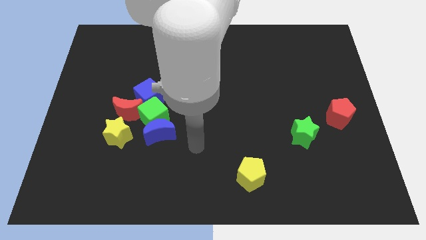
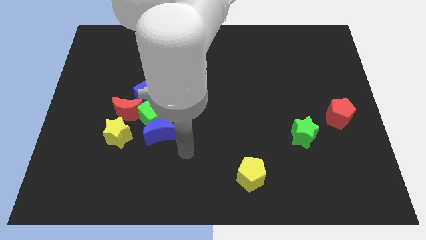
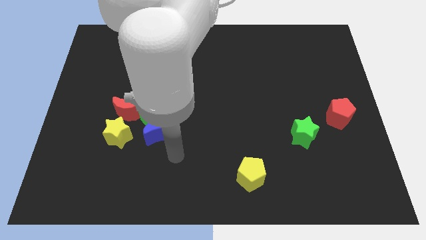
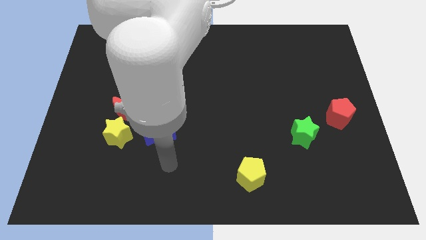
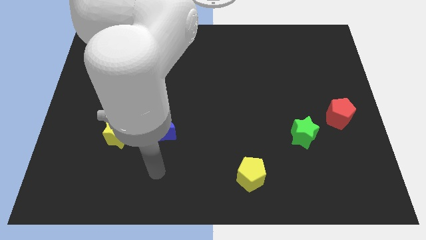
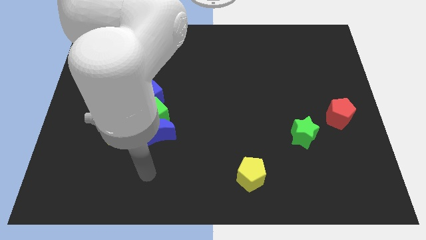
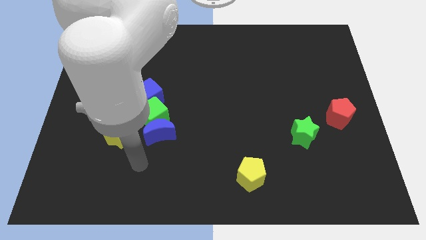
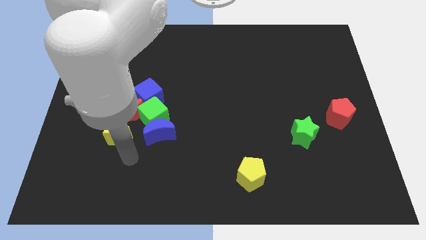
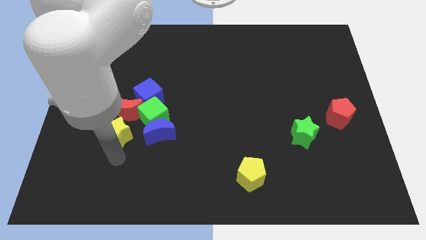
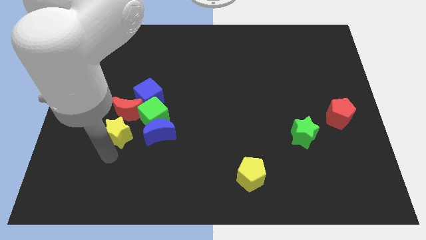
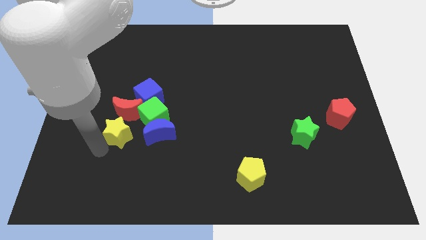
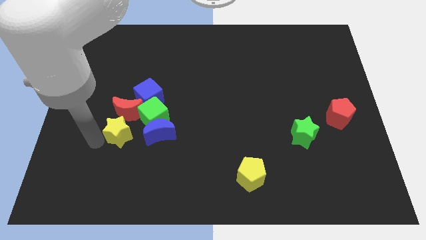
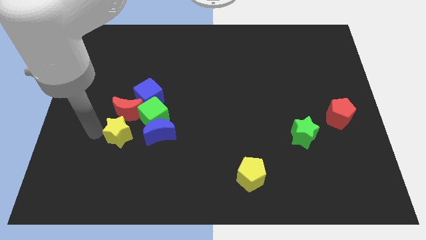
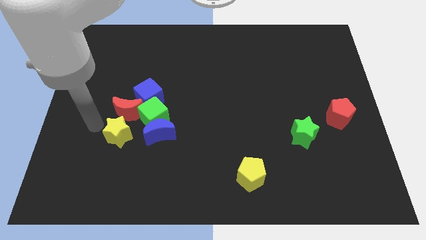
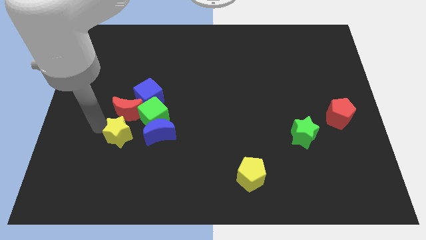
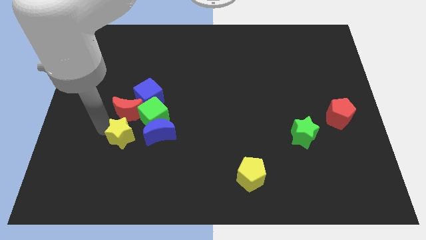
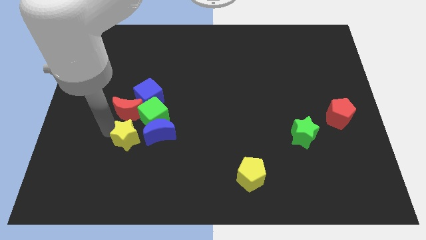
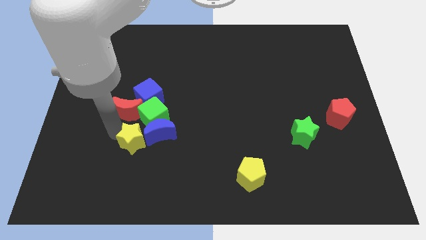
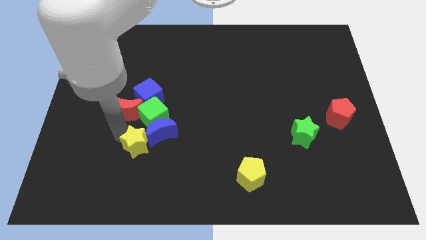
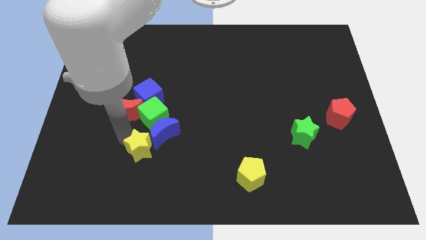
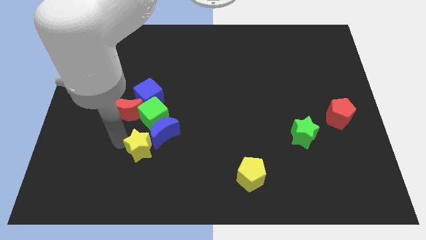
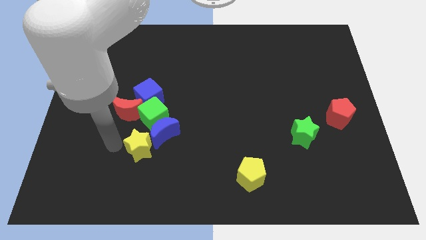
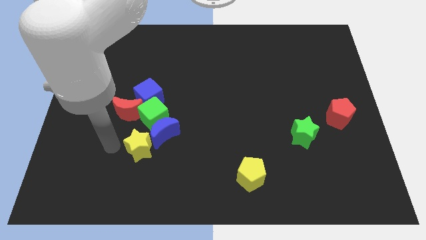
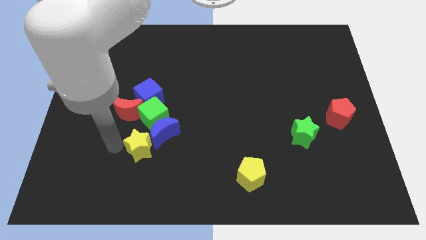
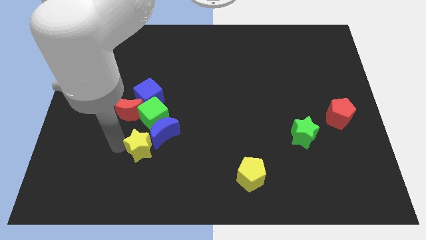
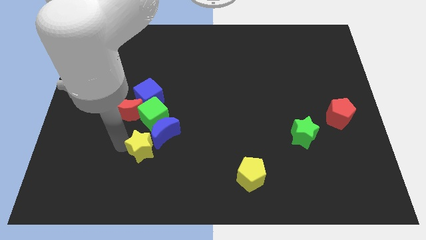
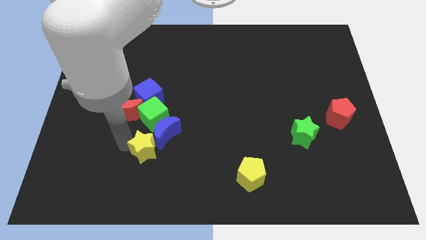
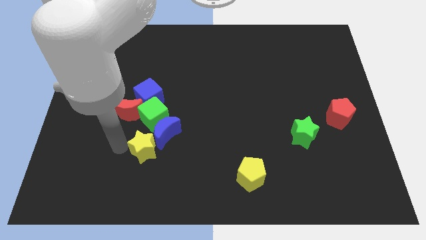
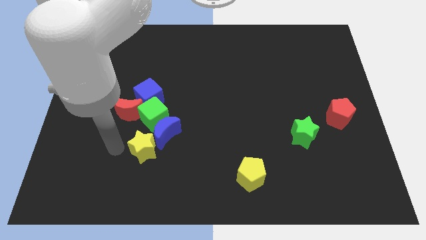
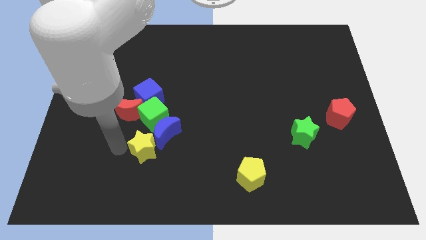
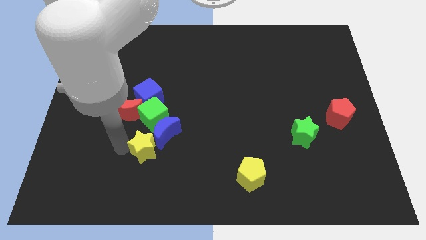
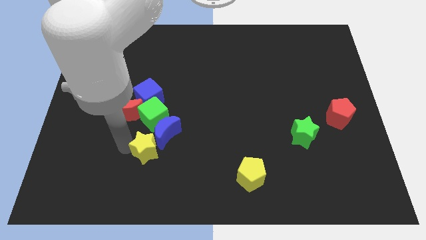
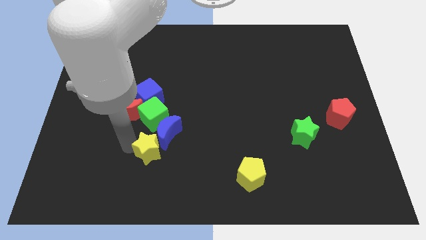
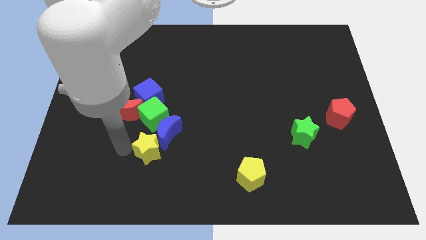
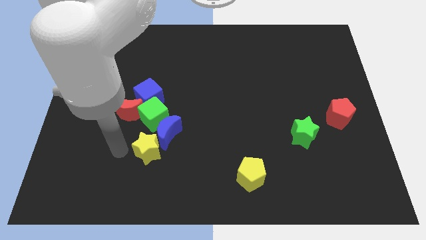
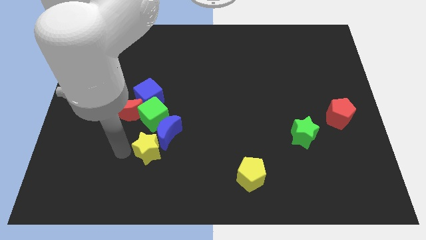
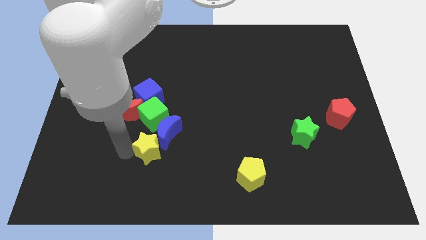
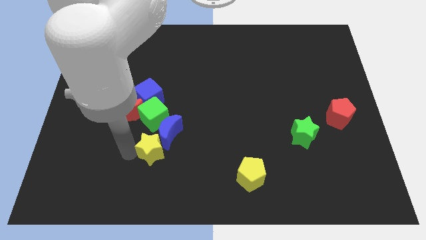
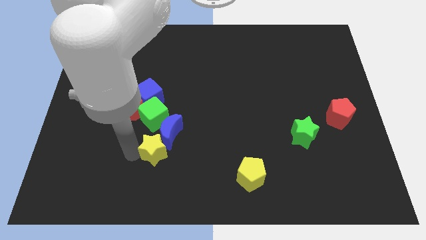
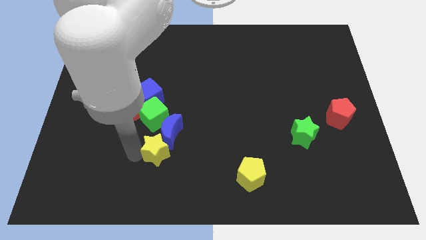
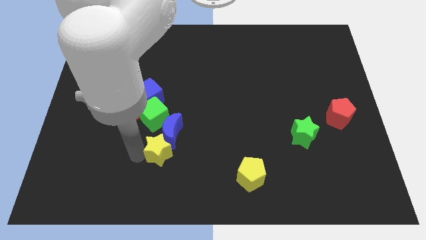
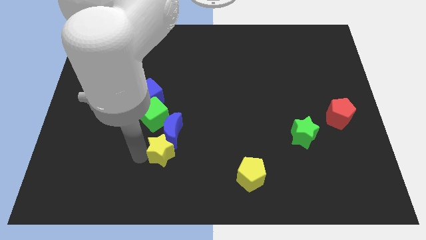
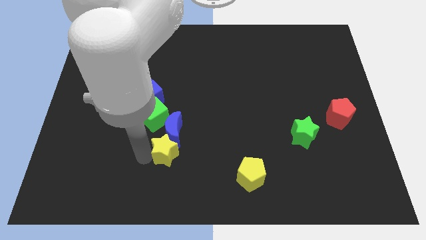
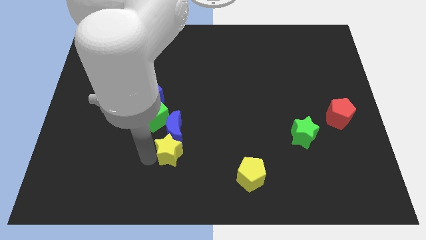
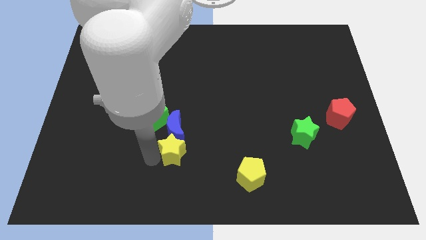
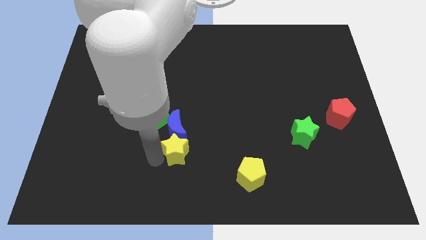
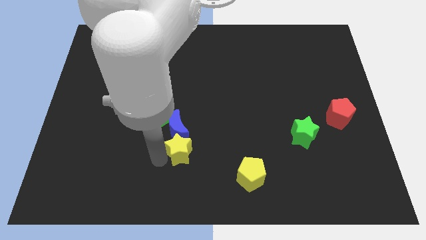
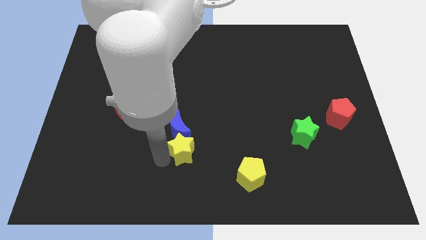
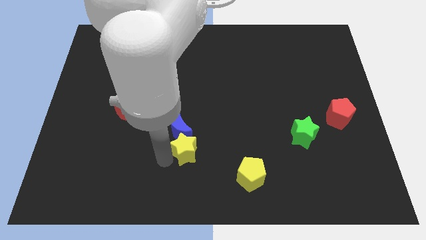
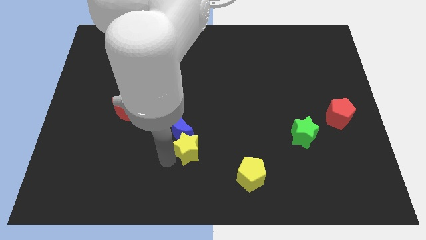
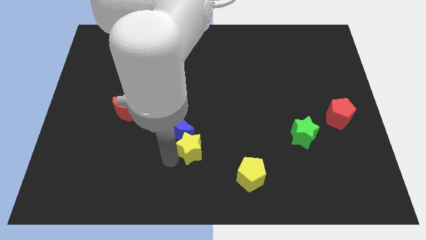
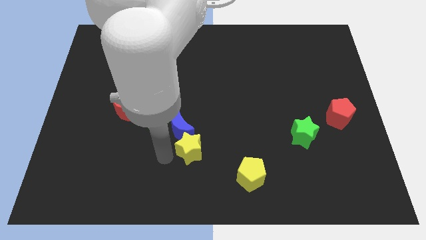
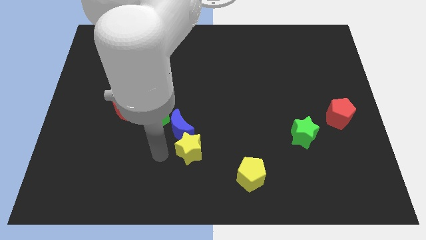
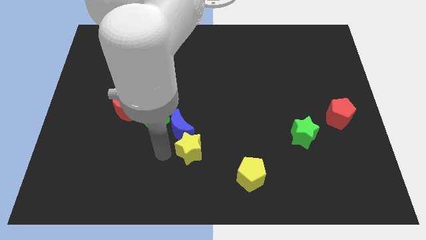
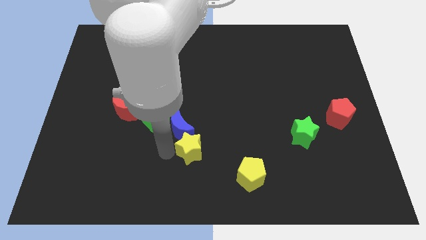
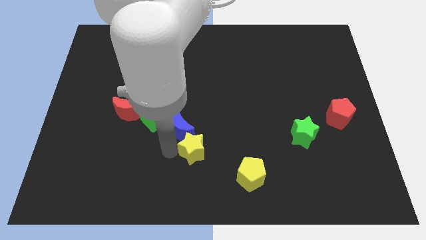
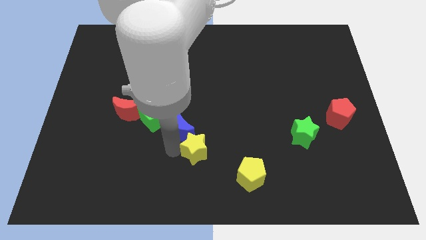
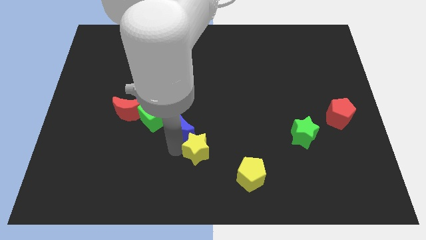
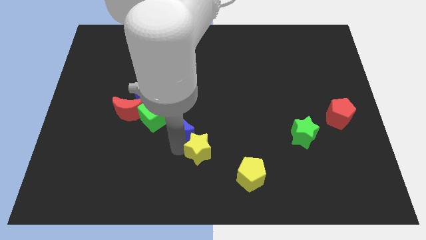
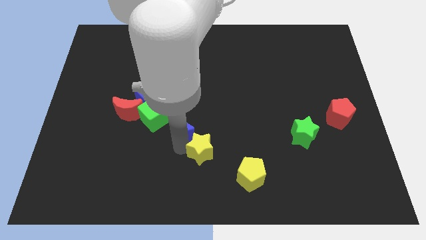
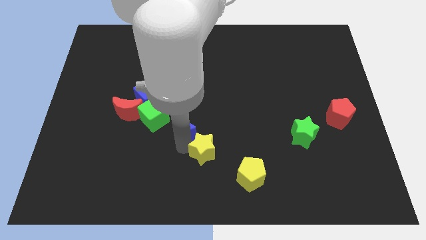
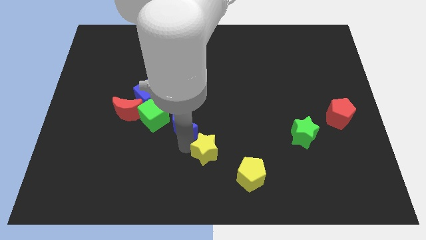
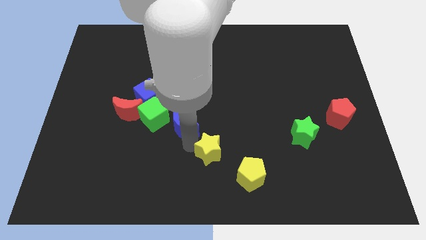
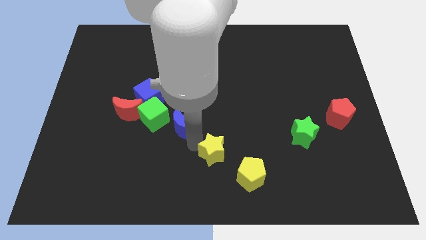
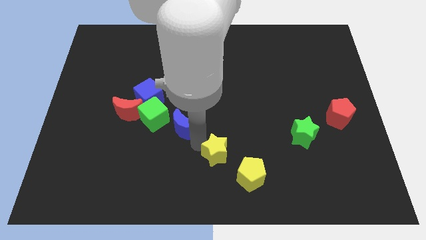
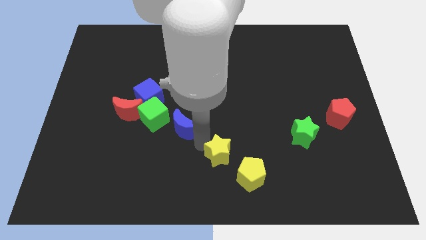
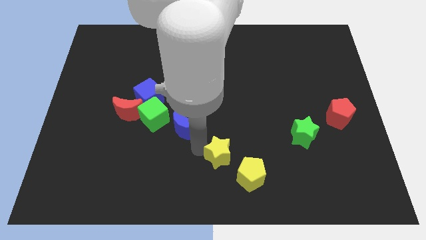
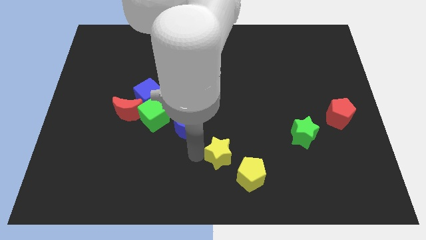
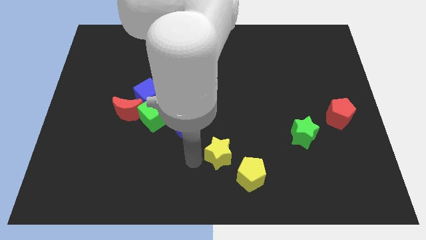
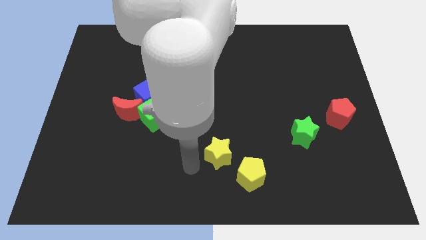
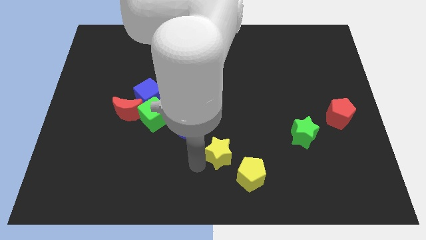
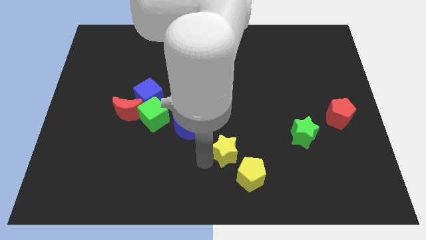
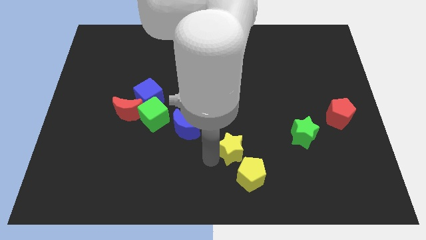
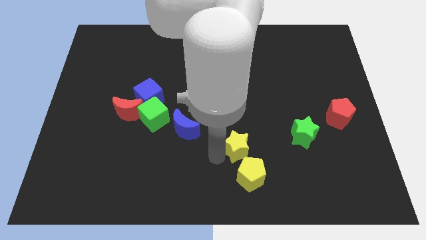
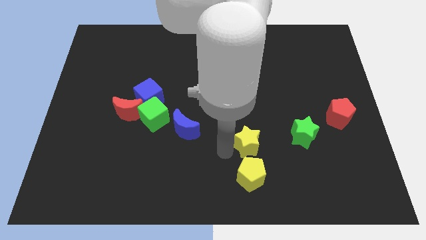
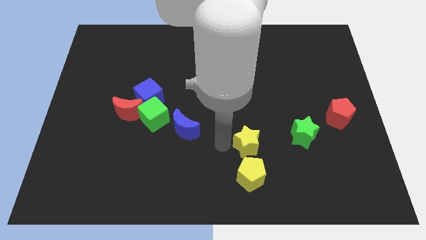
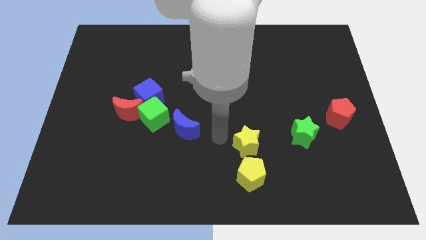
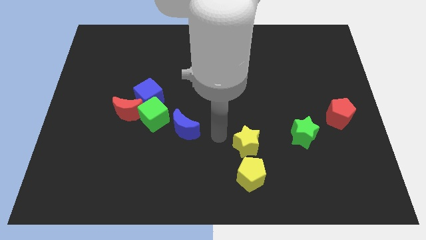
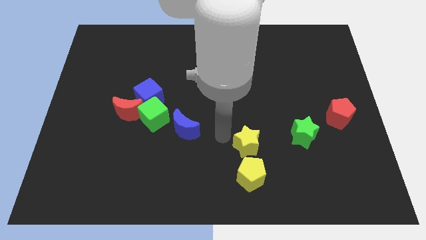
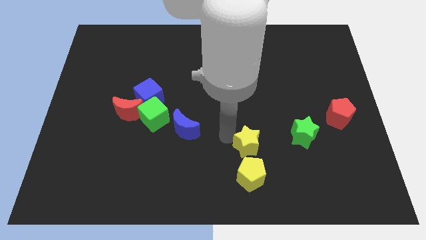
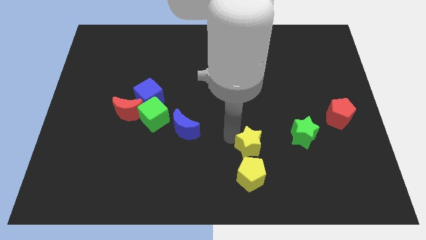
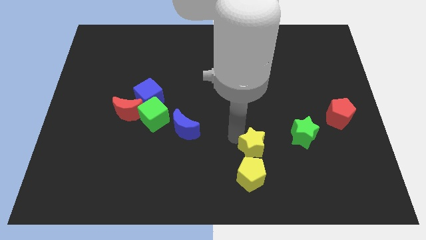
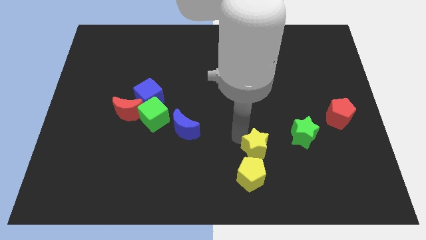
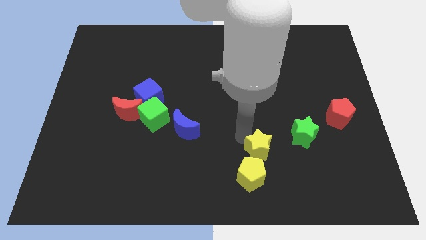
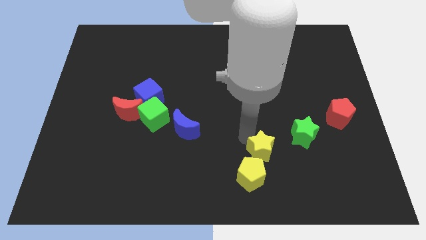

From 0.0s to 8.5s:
move the yellow star to the bottom left of the green star
